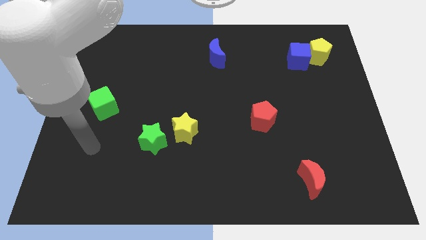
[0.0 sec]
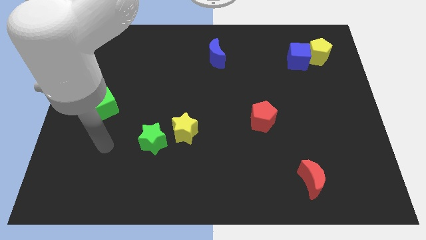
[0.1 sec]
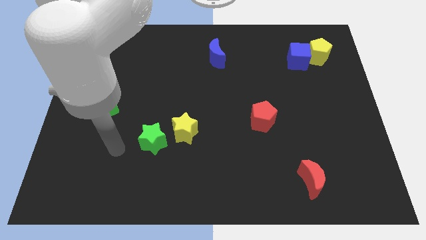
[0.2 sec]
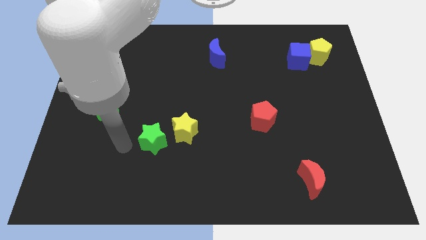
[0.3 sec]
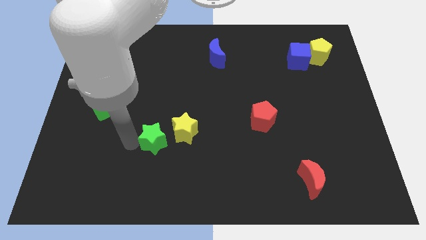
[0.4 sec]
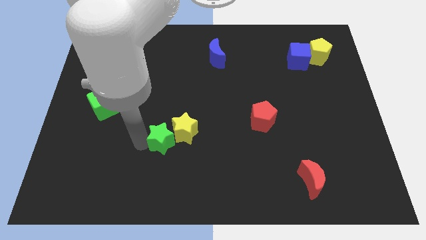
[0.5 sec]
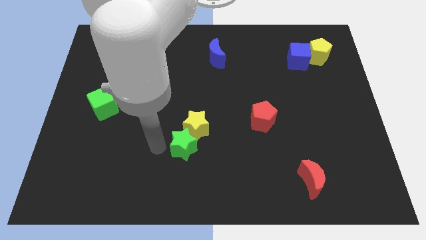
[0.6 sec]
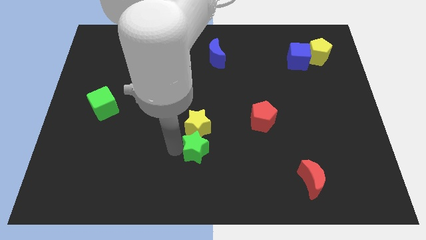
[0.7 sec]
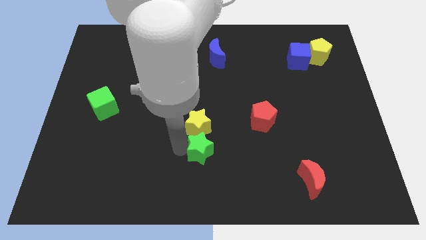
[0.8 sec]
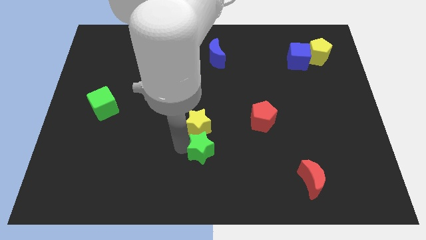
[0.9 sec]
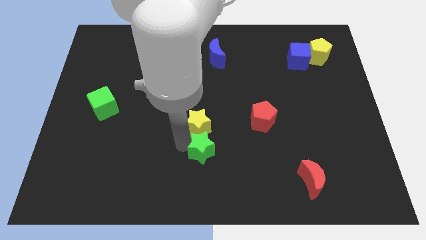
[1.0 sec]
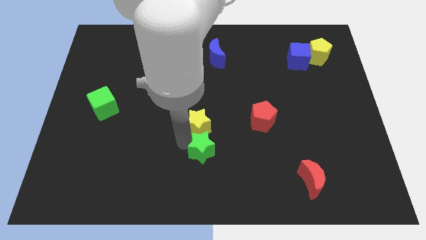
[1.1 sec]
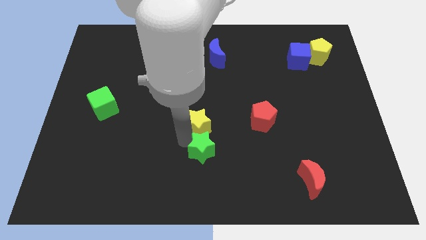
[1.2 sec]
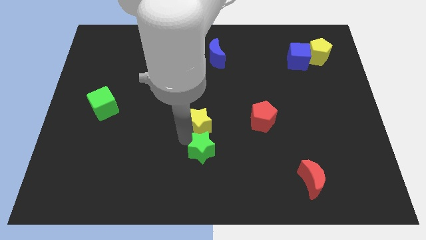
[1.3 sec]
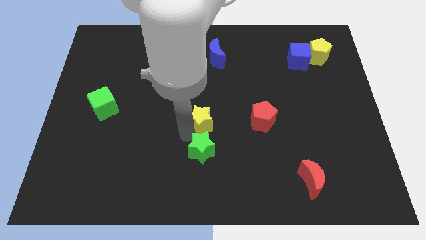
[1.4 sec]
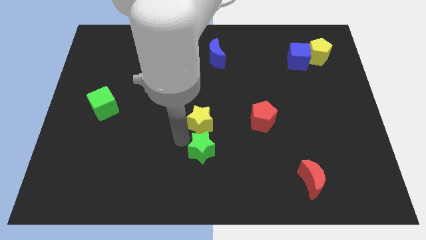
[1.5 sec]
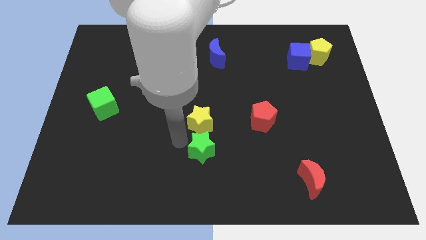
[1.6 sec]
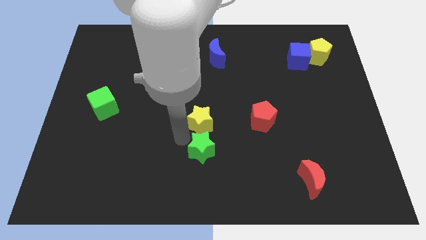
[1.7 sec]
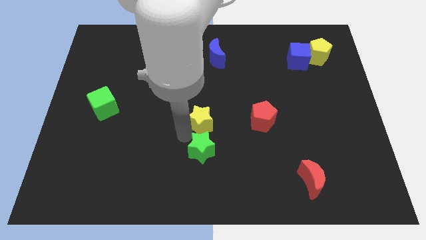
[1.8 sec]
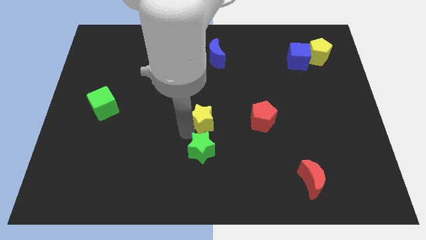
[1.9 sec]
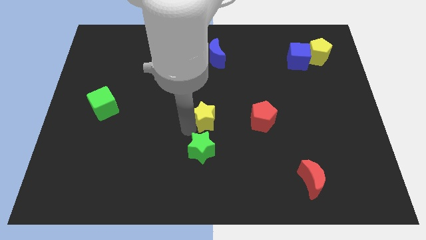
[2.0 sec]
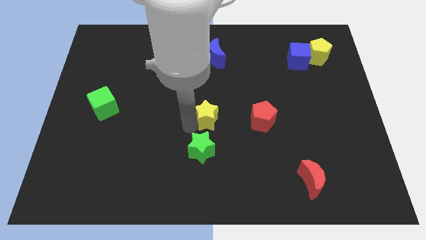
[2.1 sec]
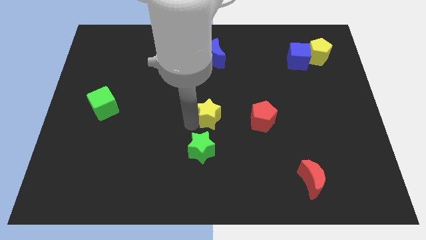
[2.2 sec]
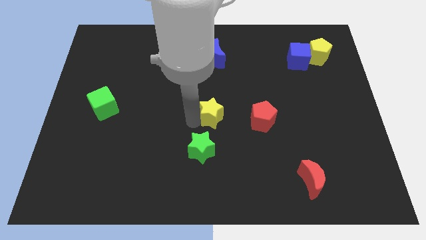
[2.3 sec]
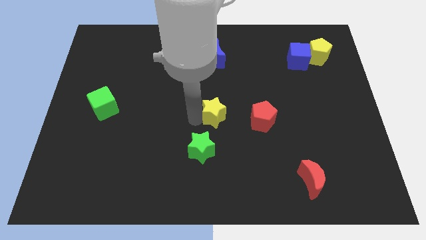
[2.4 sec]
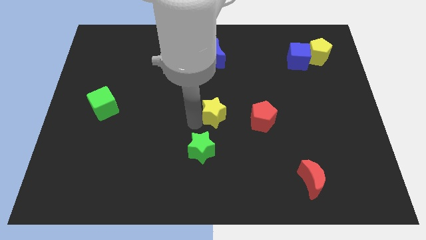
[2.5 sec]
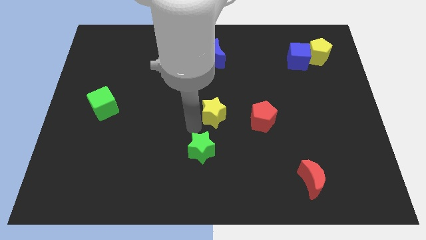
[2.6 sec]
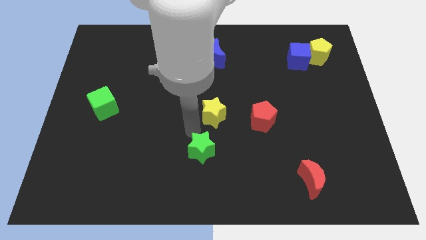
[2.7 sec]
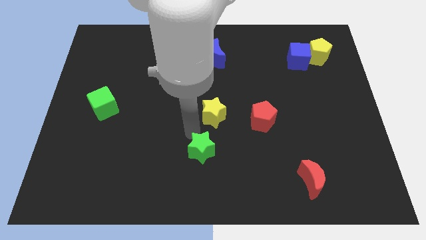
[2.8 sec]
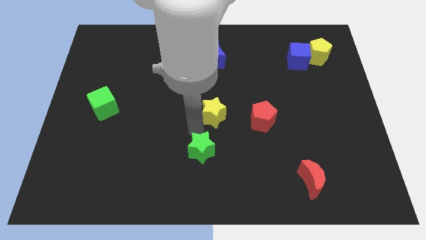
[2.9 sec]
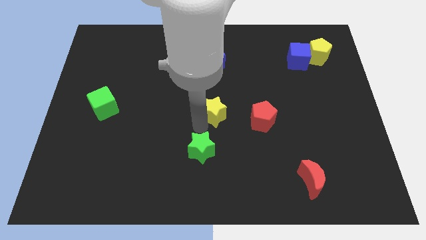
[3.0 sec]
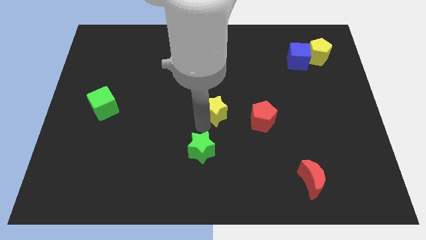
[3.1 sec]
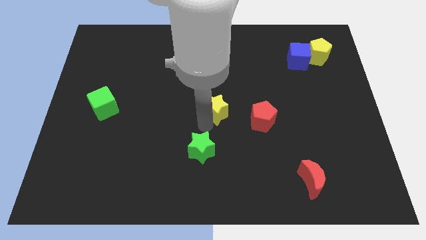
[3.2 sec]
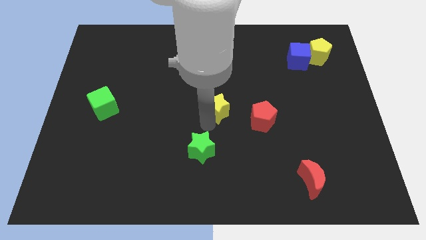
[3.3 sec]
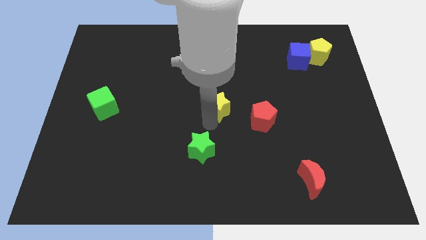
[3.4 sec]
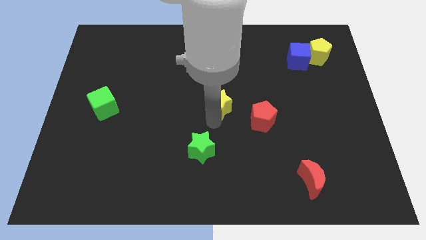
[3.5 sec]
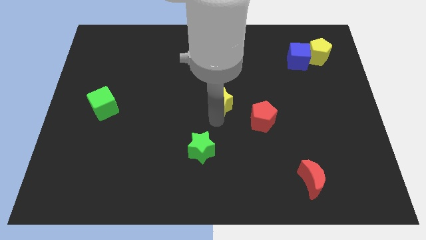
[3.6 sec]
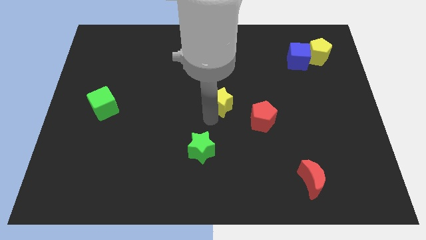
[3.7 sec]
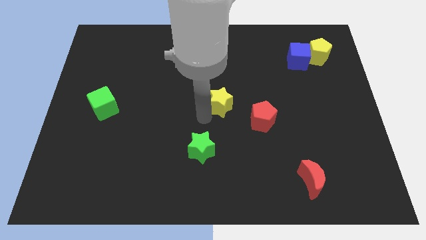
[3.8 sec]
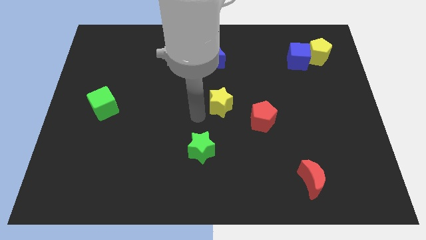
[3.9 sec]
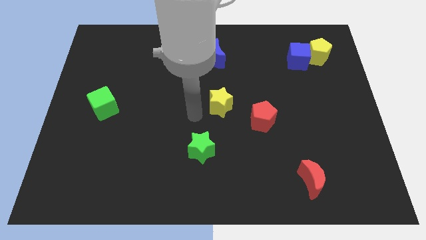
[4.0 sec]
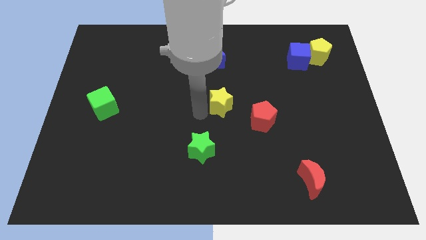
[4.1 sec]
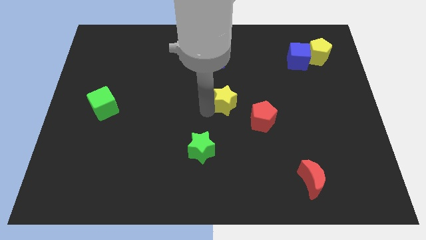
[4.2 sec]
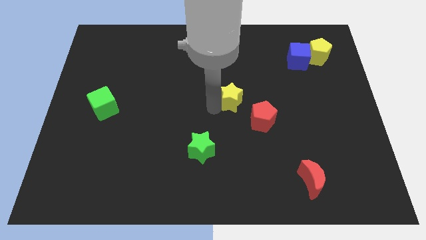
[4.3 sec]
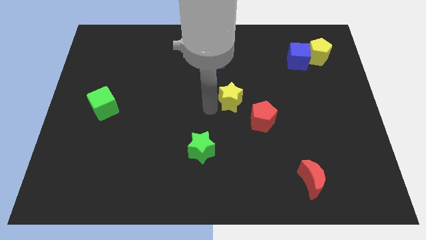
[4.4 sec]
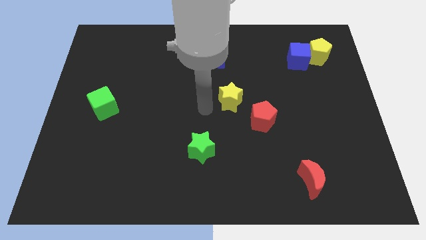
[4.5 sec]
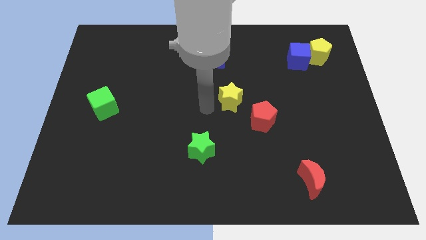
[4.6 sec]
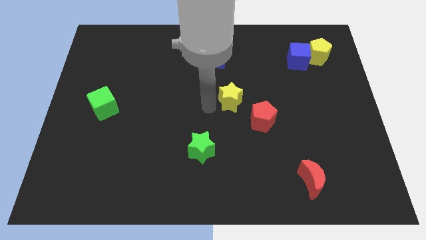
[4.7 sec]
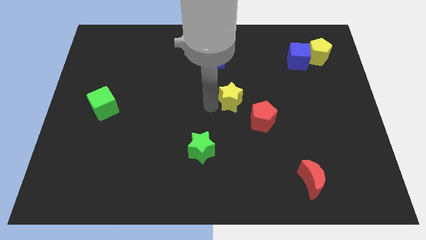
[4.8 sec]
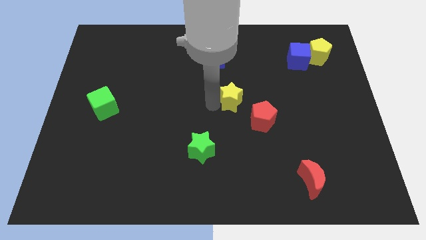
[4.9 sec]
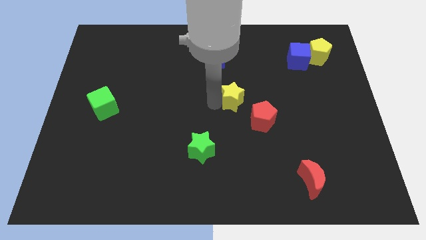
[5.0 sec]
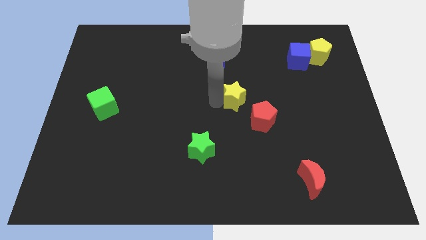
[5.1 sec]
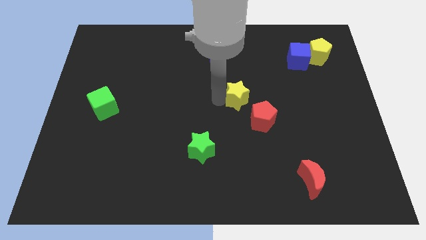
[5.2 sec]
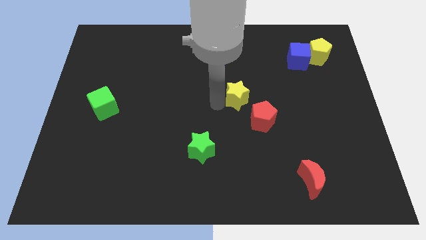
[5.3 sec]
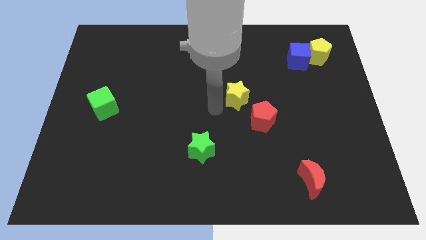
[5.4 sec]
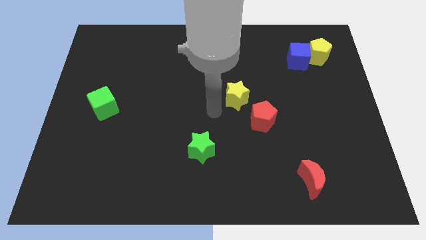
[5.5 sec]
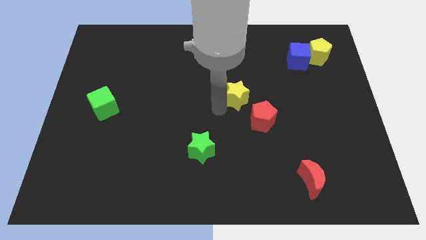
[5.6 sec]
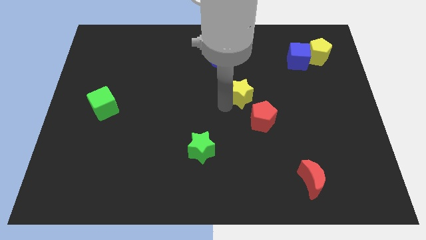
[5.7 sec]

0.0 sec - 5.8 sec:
put the yellow star to the top of the red pentagon

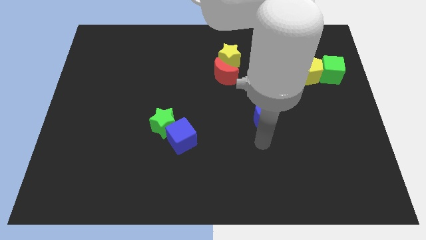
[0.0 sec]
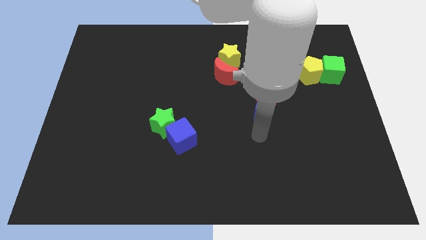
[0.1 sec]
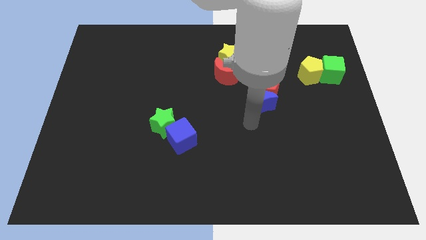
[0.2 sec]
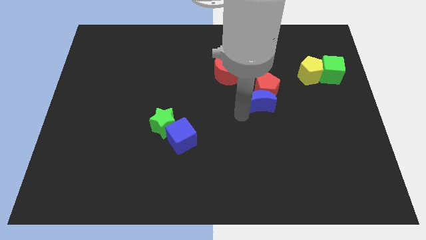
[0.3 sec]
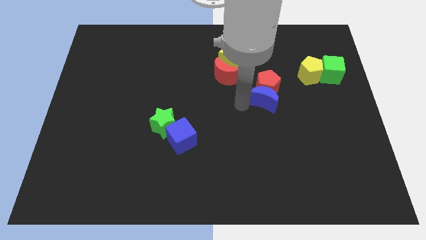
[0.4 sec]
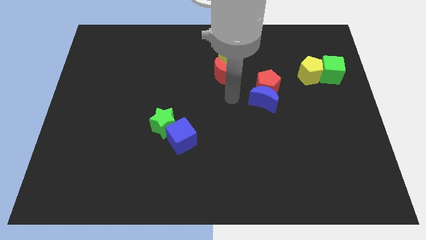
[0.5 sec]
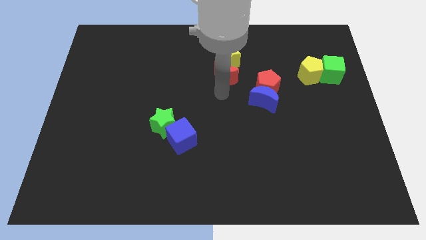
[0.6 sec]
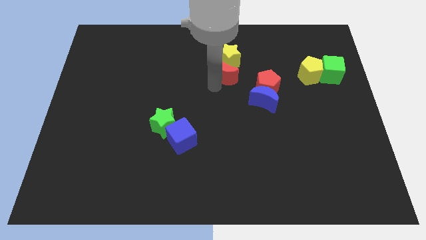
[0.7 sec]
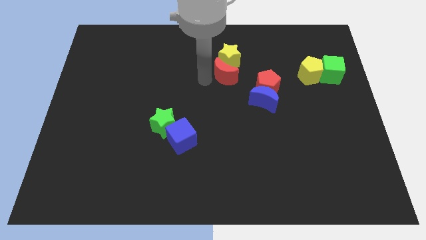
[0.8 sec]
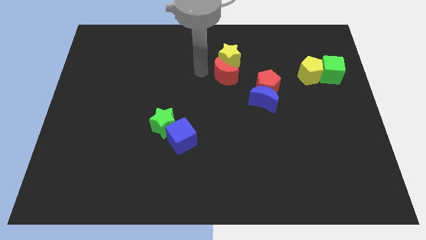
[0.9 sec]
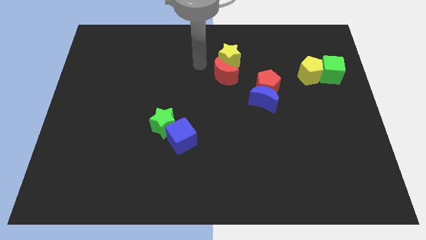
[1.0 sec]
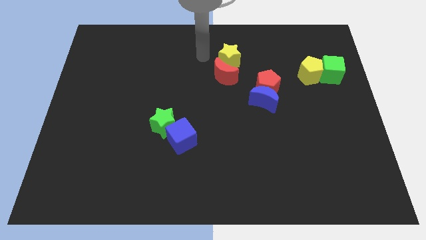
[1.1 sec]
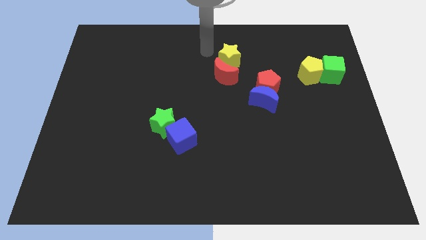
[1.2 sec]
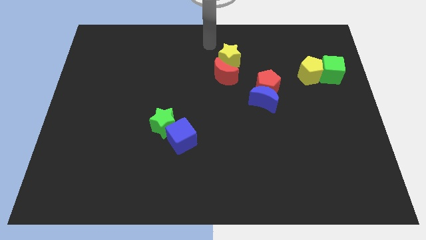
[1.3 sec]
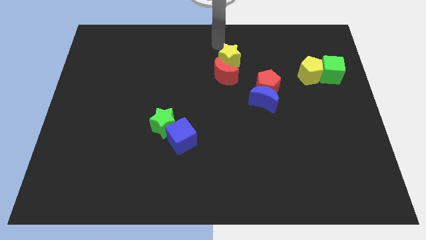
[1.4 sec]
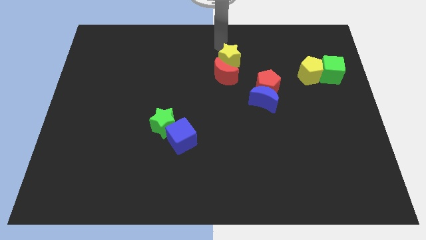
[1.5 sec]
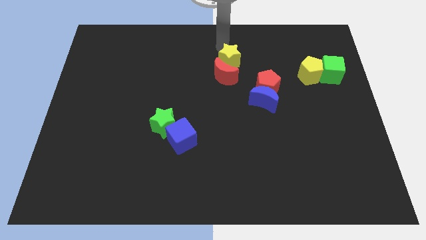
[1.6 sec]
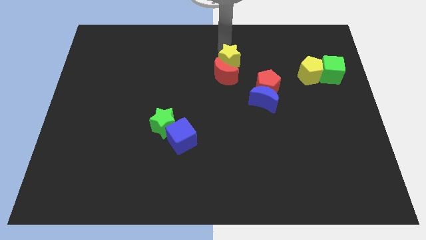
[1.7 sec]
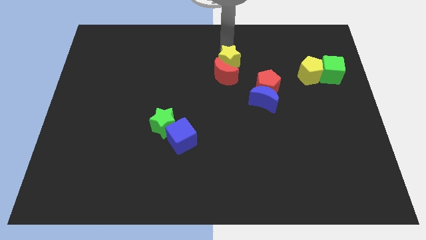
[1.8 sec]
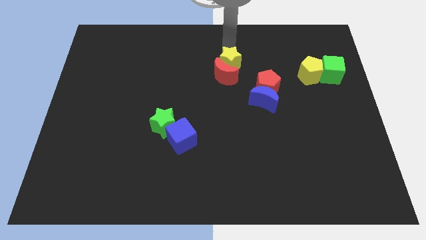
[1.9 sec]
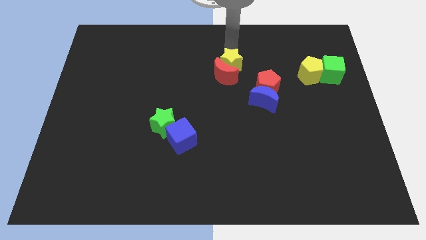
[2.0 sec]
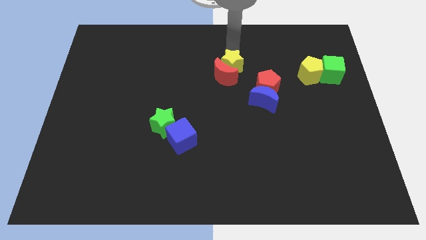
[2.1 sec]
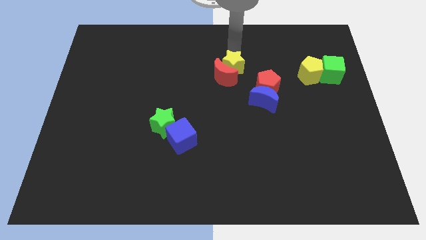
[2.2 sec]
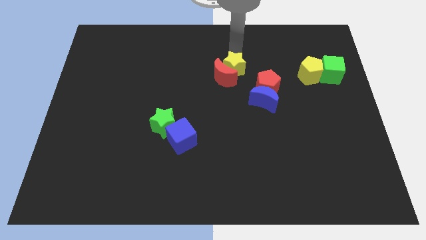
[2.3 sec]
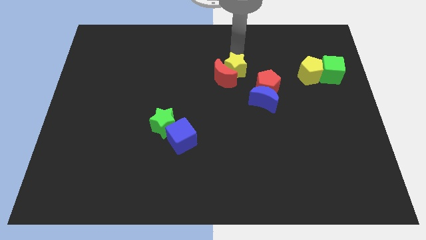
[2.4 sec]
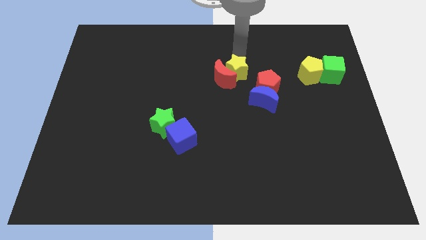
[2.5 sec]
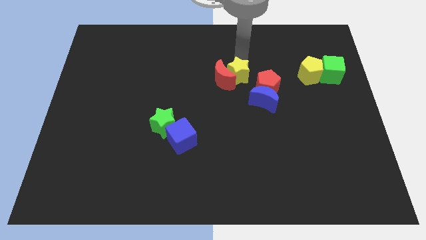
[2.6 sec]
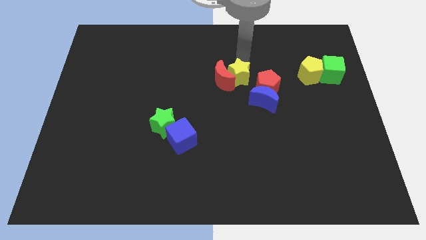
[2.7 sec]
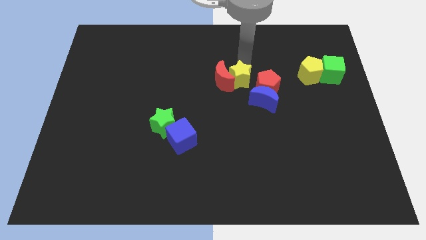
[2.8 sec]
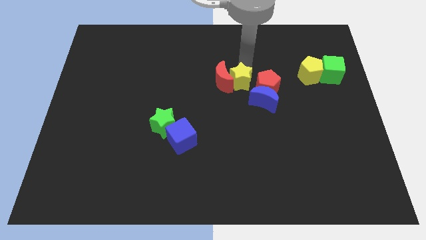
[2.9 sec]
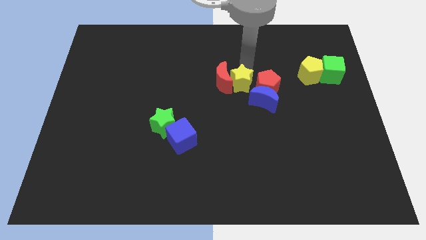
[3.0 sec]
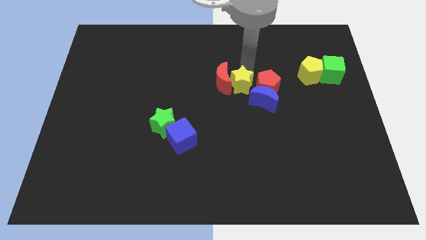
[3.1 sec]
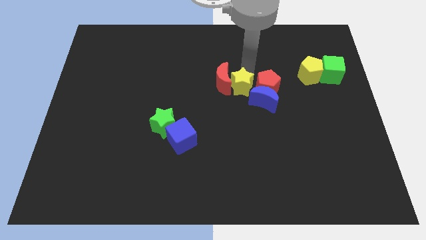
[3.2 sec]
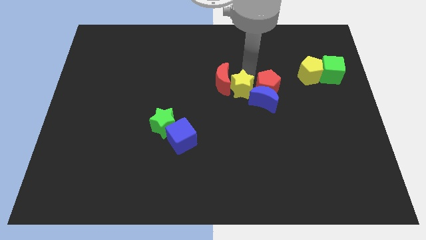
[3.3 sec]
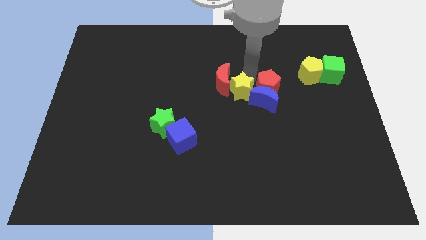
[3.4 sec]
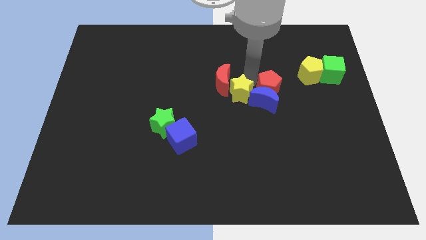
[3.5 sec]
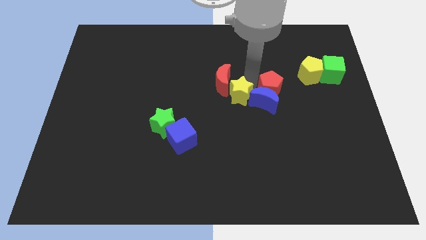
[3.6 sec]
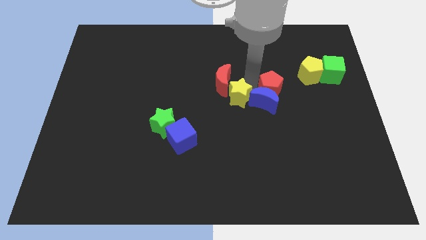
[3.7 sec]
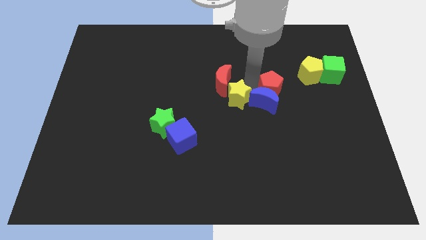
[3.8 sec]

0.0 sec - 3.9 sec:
put the yellow star to the bottom left side of the blue moon
